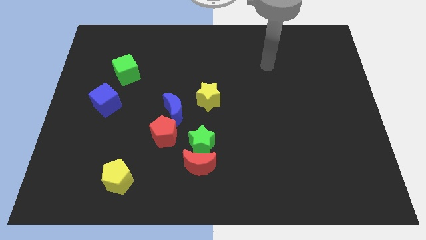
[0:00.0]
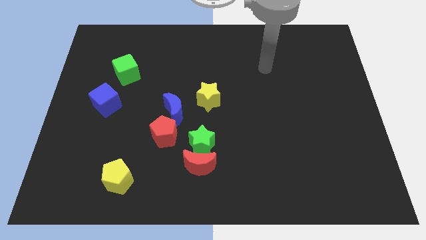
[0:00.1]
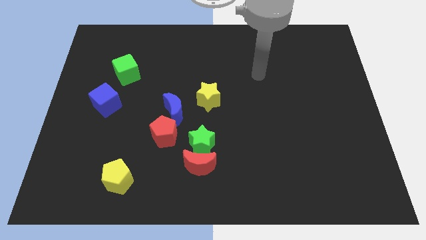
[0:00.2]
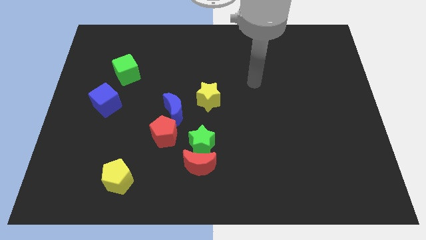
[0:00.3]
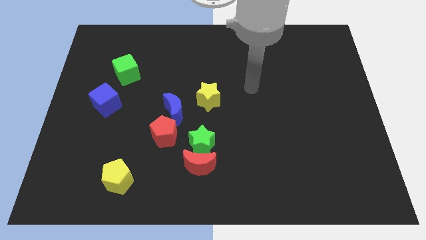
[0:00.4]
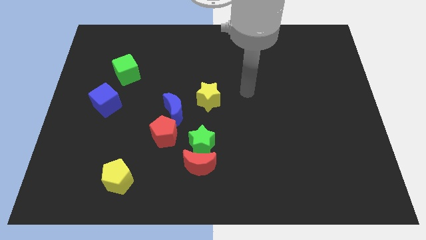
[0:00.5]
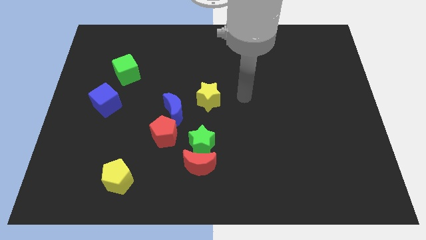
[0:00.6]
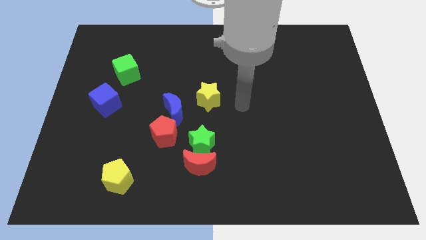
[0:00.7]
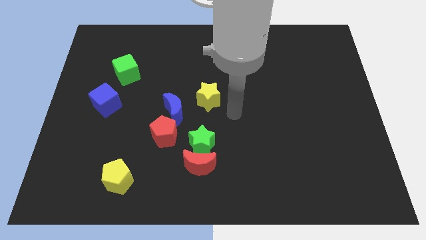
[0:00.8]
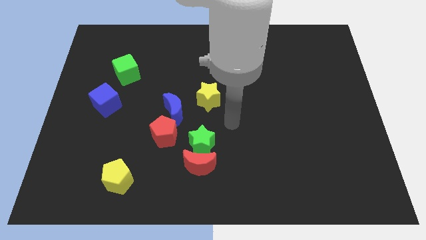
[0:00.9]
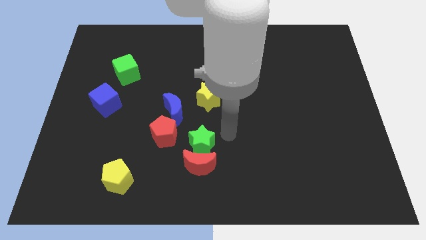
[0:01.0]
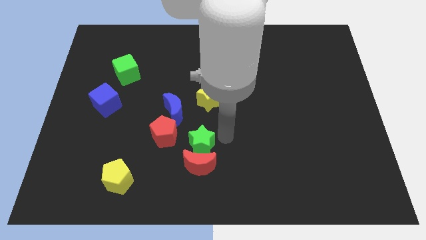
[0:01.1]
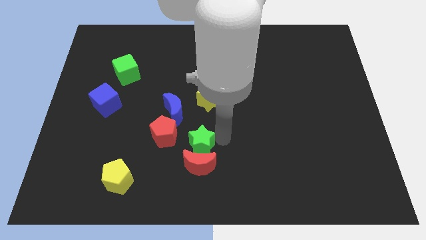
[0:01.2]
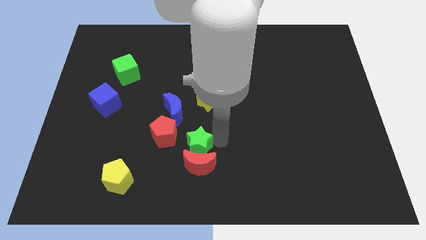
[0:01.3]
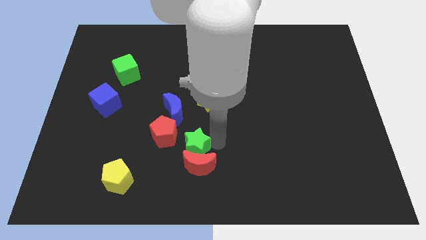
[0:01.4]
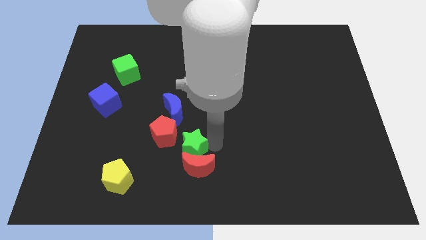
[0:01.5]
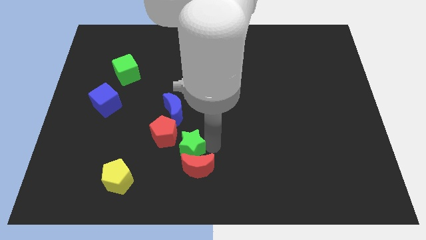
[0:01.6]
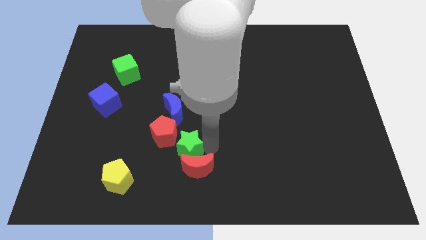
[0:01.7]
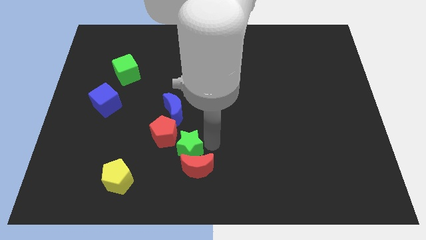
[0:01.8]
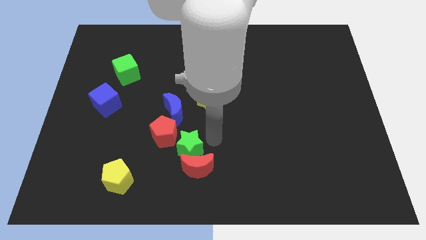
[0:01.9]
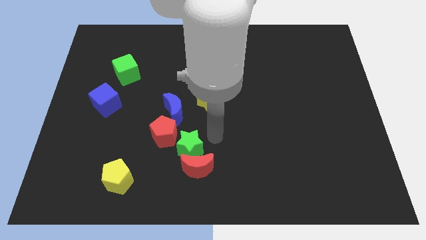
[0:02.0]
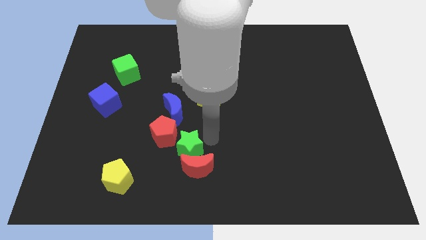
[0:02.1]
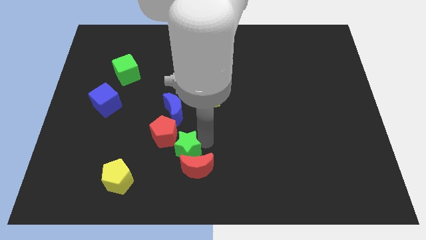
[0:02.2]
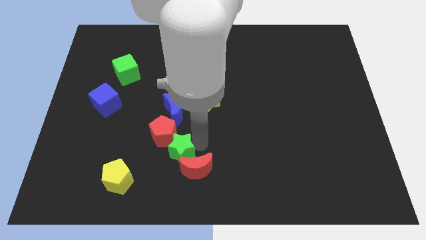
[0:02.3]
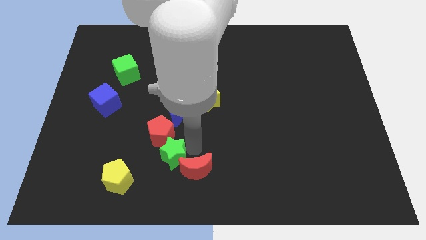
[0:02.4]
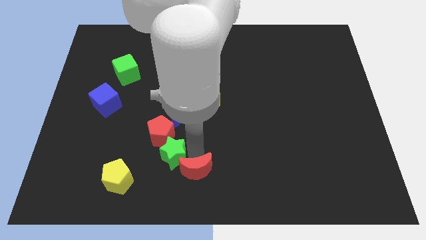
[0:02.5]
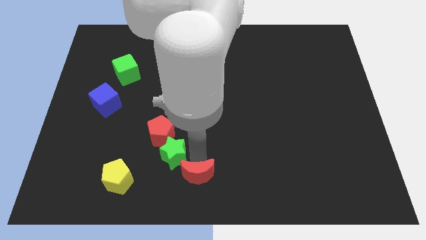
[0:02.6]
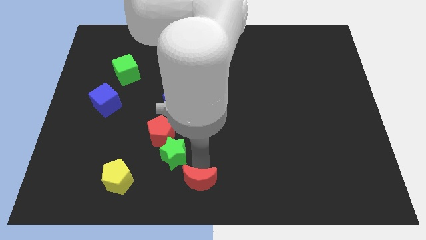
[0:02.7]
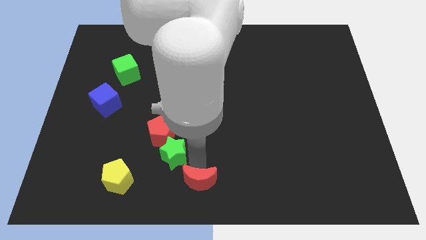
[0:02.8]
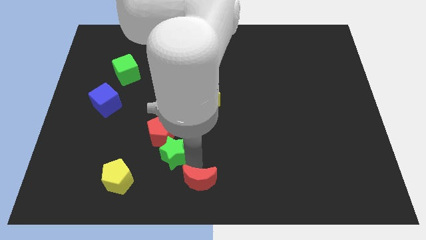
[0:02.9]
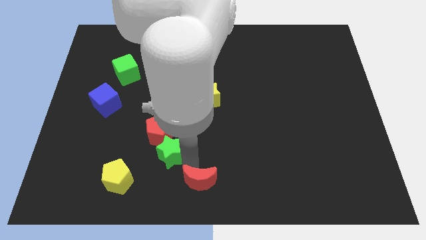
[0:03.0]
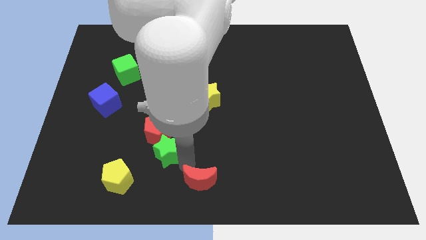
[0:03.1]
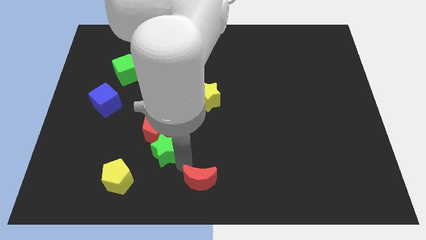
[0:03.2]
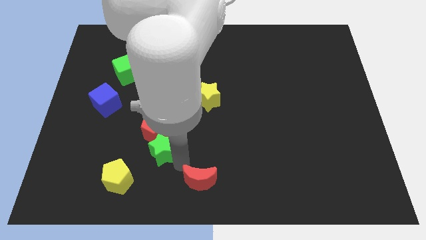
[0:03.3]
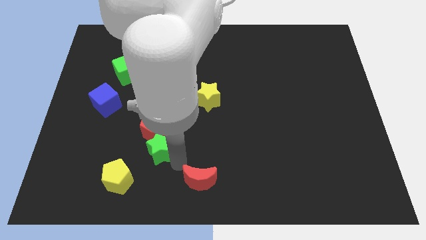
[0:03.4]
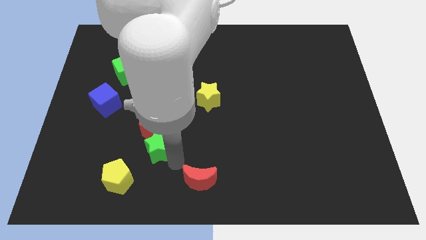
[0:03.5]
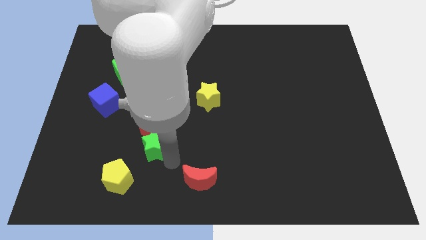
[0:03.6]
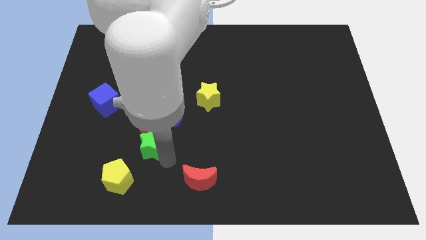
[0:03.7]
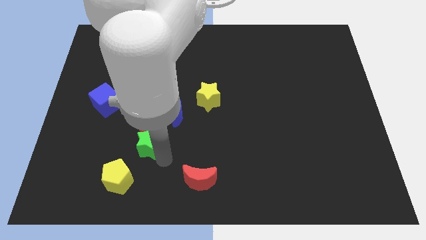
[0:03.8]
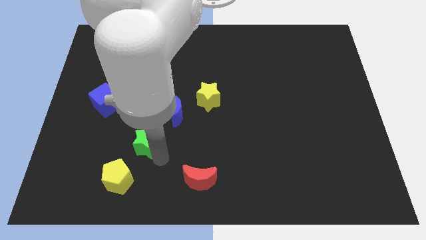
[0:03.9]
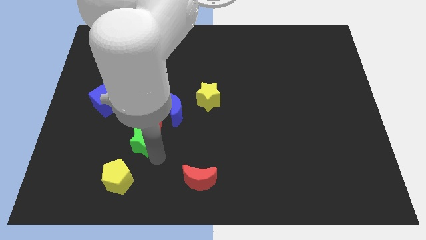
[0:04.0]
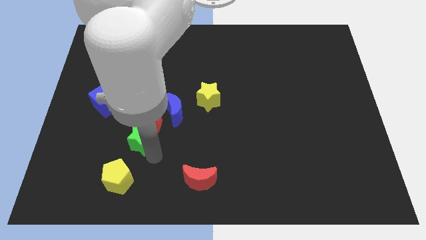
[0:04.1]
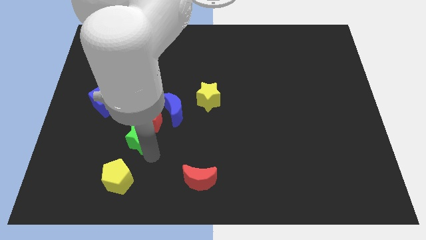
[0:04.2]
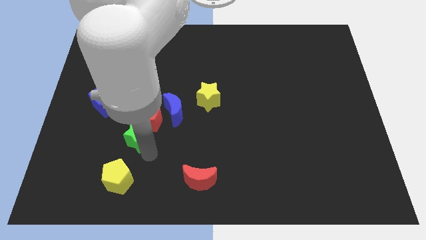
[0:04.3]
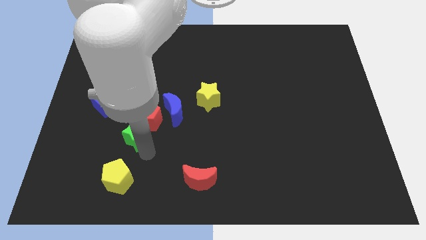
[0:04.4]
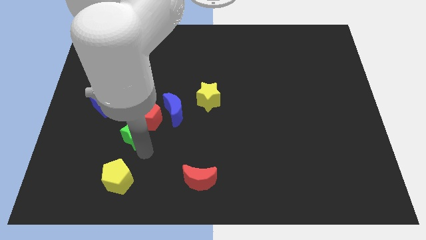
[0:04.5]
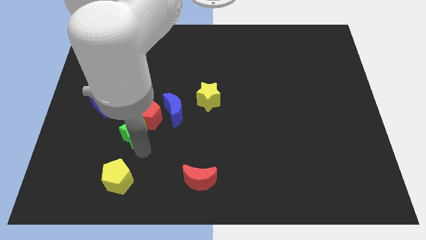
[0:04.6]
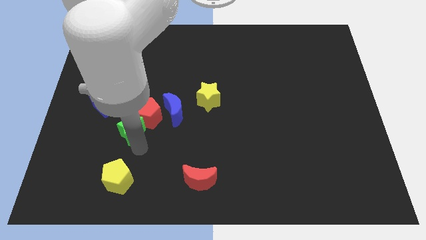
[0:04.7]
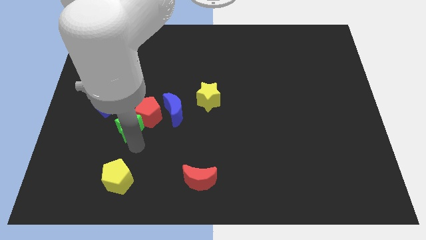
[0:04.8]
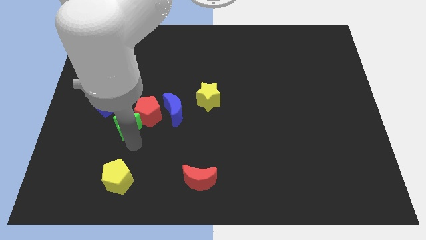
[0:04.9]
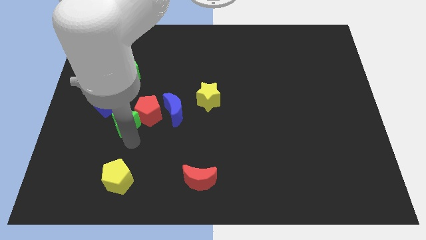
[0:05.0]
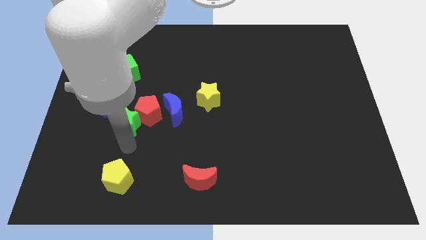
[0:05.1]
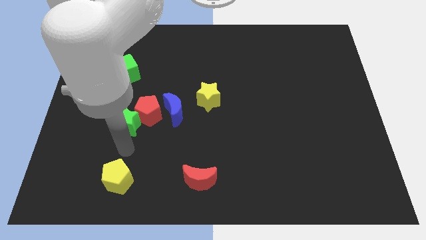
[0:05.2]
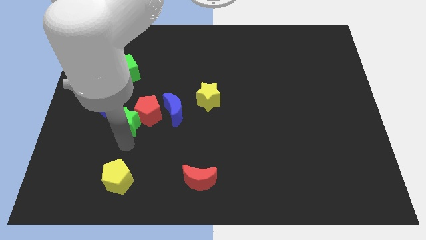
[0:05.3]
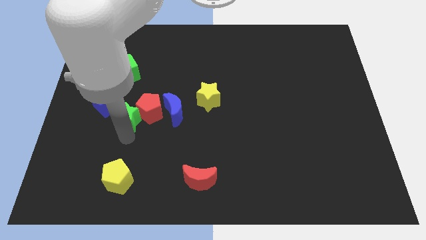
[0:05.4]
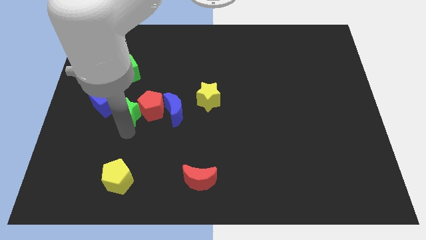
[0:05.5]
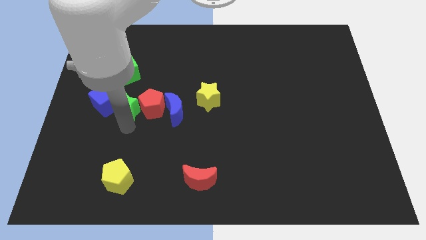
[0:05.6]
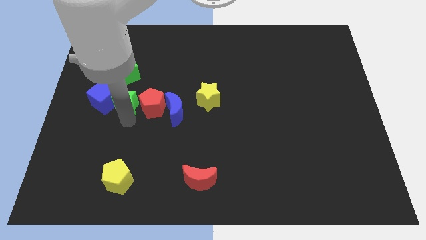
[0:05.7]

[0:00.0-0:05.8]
push the green star upwards and left diagonally

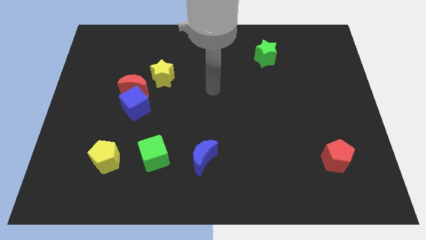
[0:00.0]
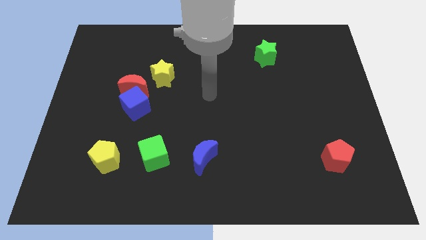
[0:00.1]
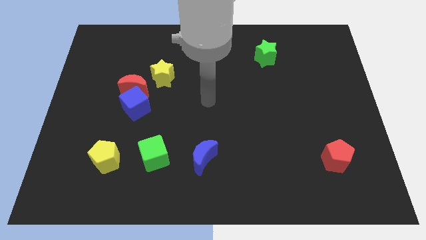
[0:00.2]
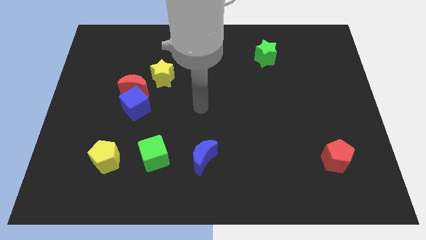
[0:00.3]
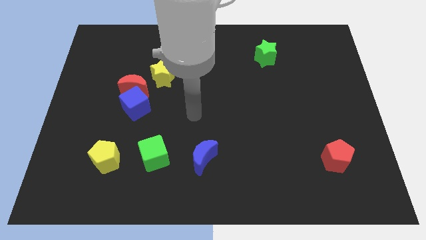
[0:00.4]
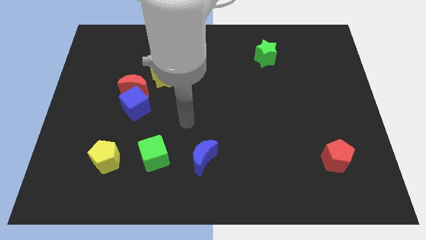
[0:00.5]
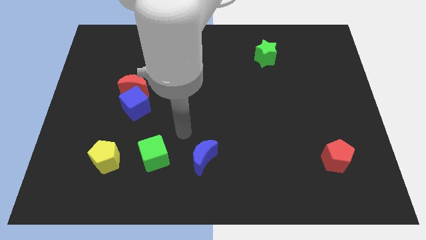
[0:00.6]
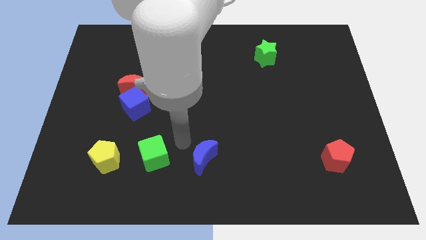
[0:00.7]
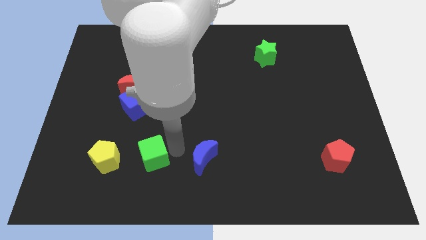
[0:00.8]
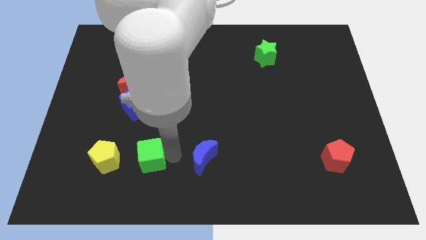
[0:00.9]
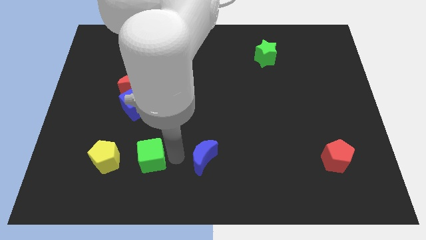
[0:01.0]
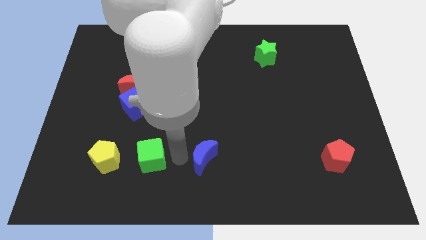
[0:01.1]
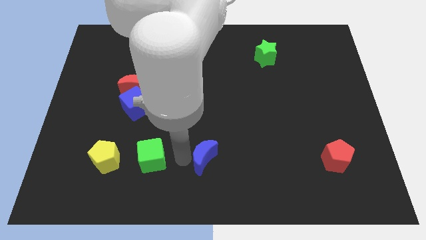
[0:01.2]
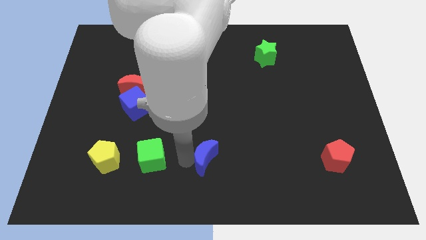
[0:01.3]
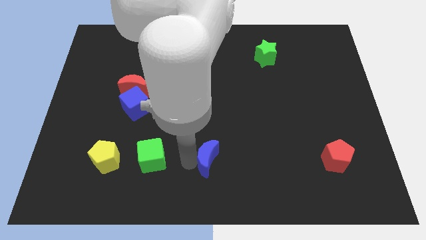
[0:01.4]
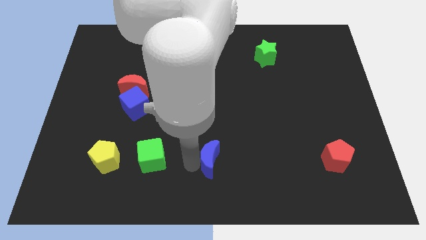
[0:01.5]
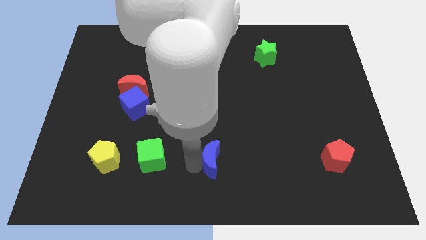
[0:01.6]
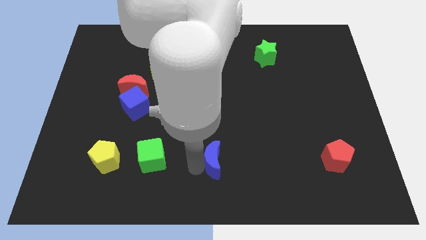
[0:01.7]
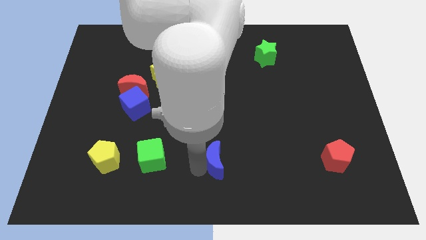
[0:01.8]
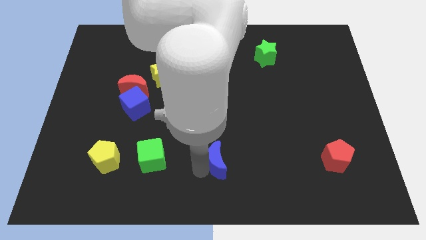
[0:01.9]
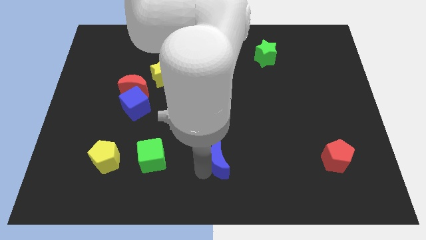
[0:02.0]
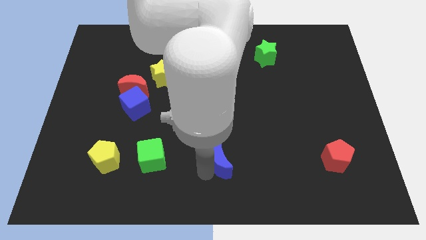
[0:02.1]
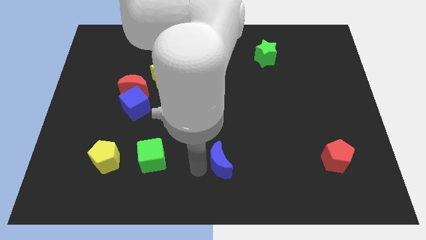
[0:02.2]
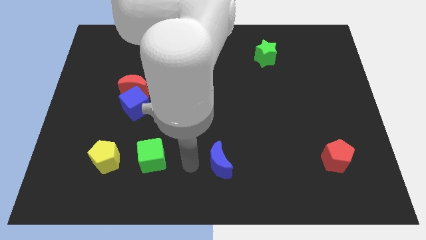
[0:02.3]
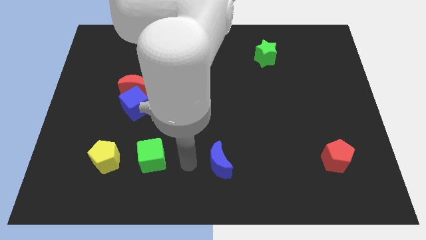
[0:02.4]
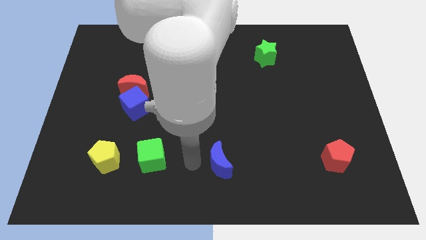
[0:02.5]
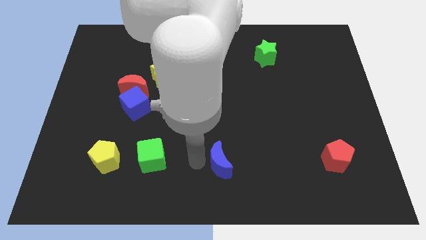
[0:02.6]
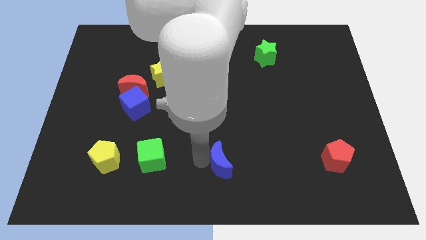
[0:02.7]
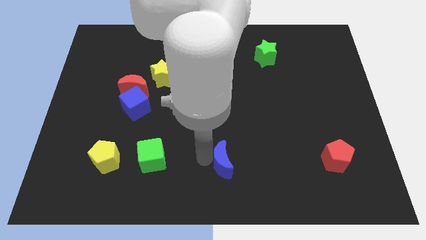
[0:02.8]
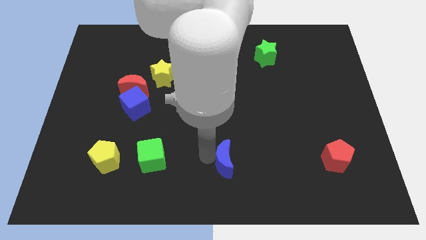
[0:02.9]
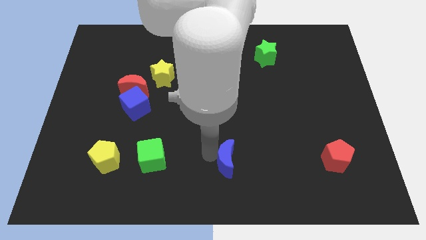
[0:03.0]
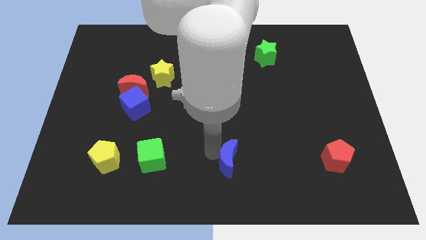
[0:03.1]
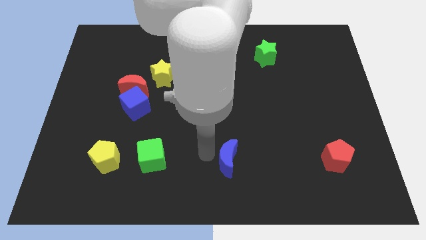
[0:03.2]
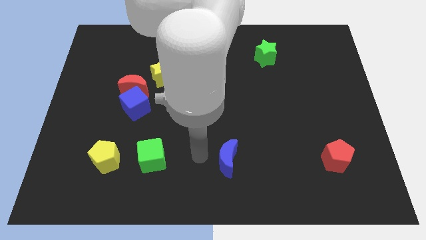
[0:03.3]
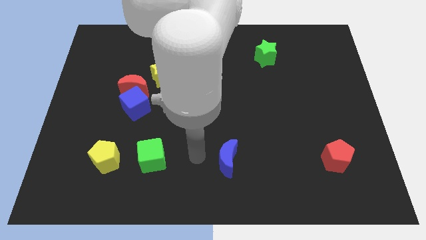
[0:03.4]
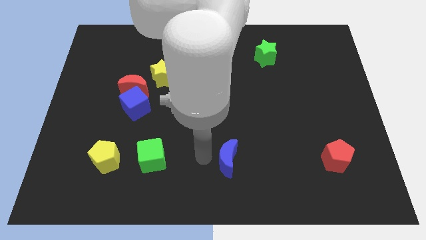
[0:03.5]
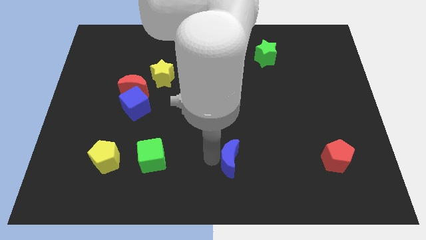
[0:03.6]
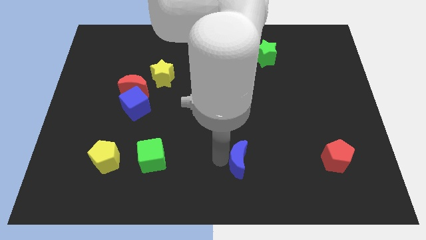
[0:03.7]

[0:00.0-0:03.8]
push the blue moon right a little bit
